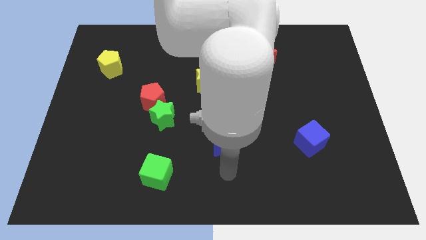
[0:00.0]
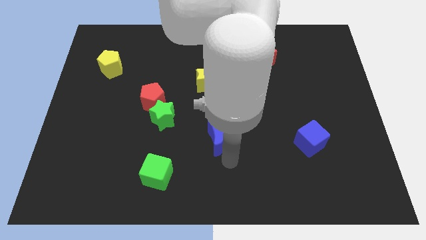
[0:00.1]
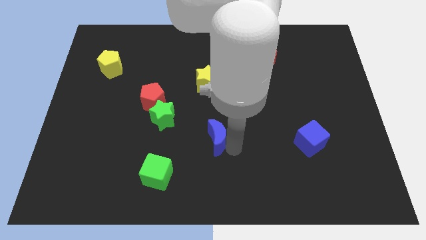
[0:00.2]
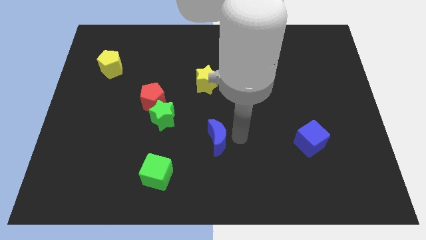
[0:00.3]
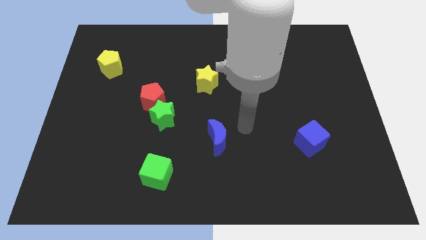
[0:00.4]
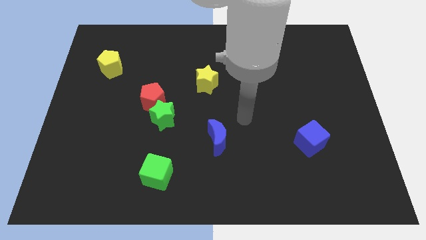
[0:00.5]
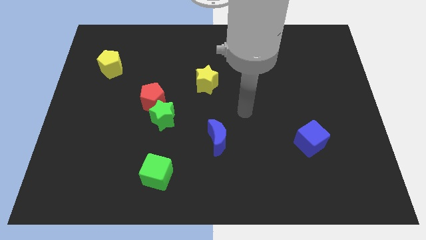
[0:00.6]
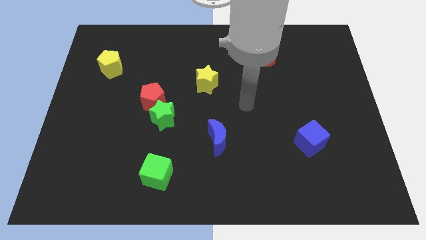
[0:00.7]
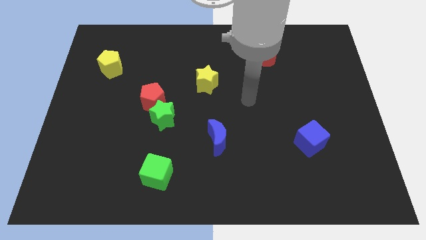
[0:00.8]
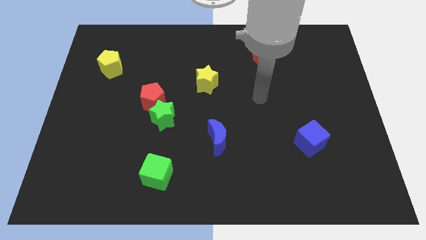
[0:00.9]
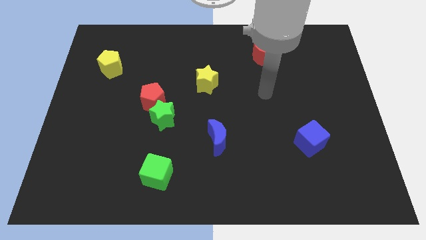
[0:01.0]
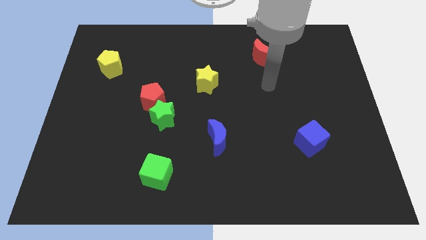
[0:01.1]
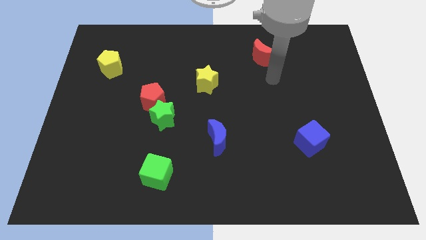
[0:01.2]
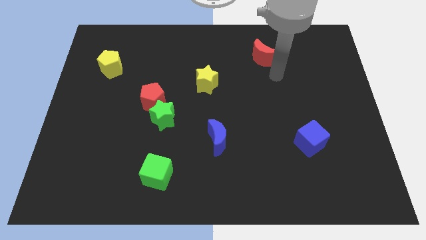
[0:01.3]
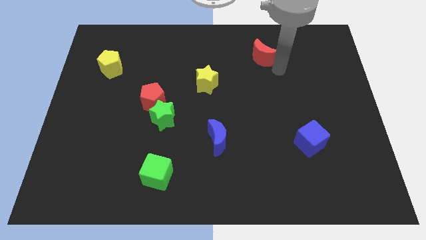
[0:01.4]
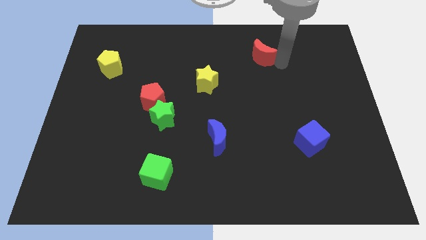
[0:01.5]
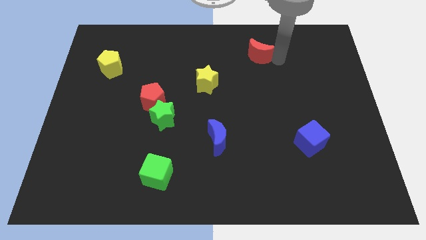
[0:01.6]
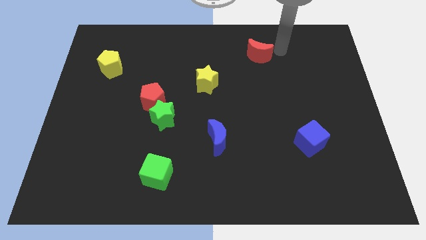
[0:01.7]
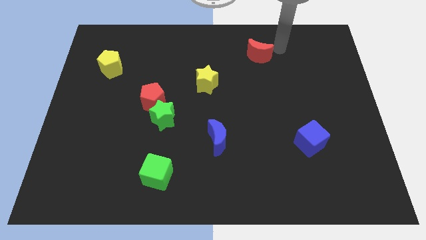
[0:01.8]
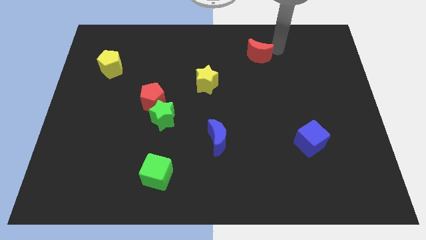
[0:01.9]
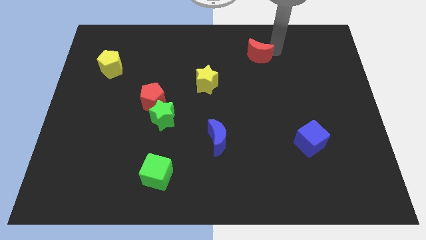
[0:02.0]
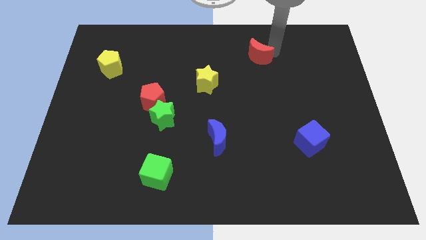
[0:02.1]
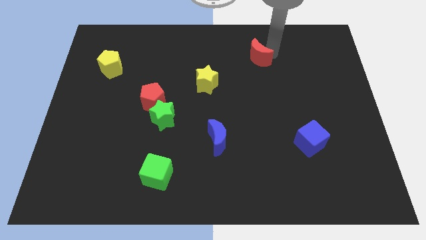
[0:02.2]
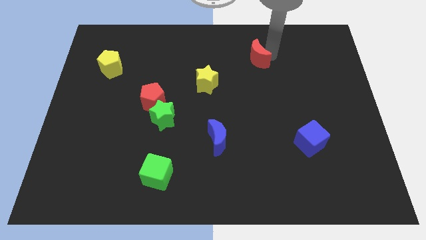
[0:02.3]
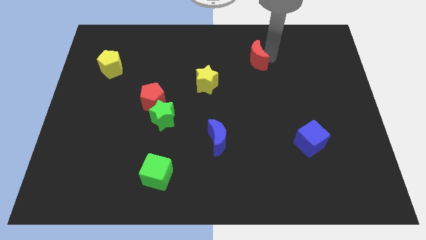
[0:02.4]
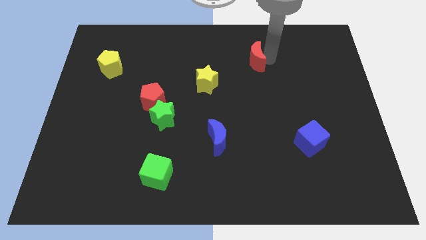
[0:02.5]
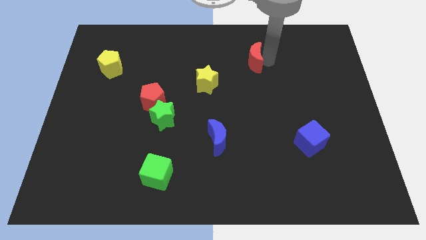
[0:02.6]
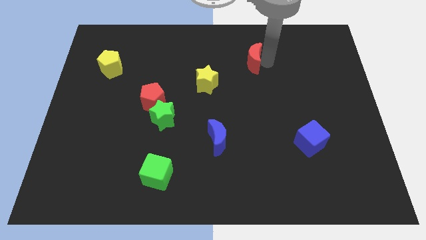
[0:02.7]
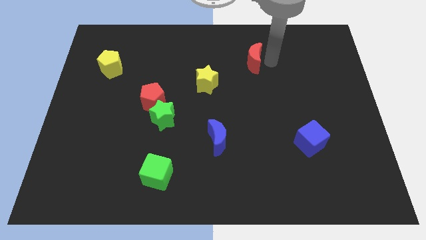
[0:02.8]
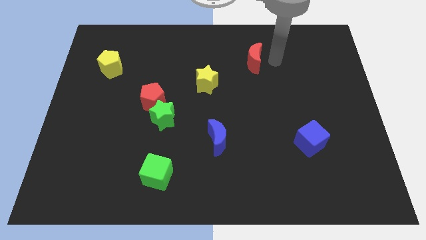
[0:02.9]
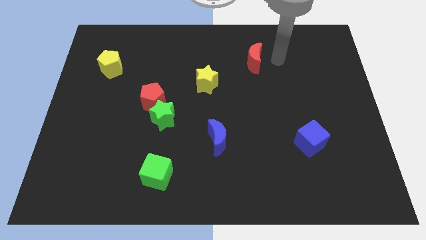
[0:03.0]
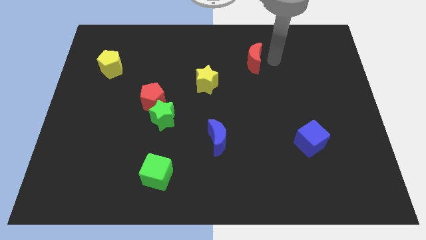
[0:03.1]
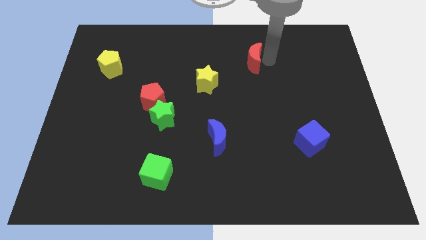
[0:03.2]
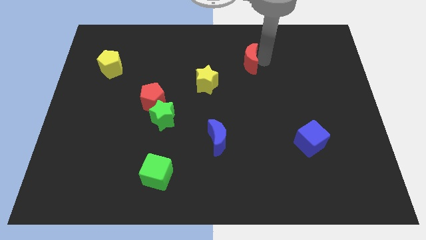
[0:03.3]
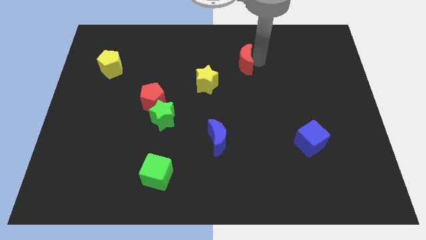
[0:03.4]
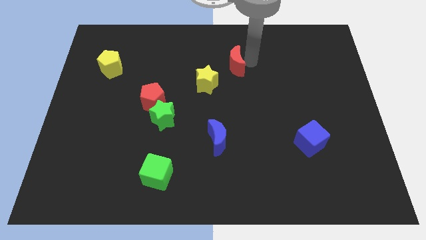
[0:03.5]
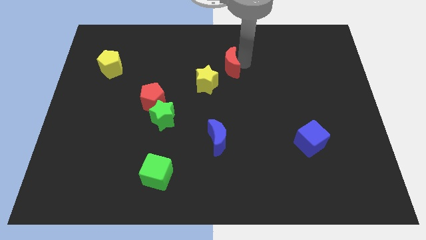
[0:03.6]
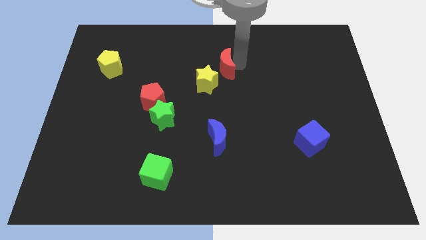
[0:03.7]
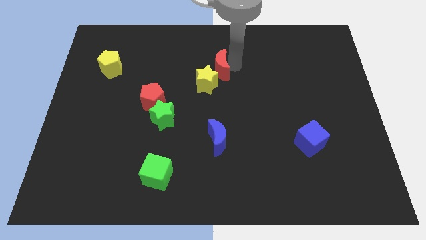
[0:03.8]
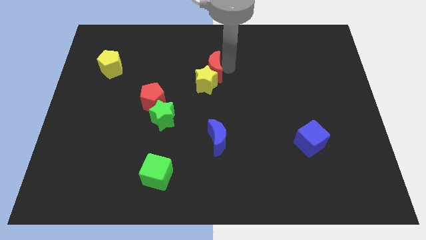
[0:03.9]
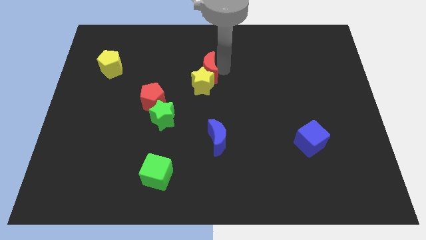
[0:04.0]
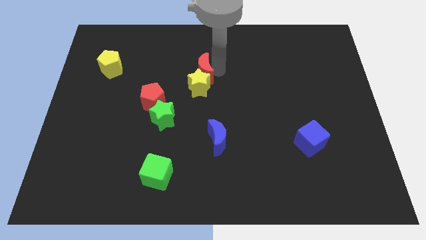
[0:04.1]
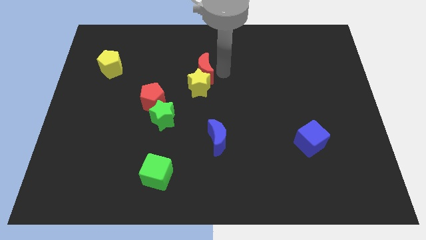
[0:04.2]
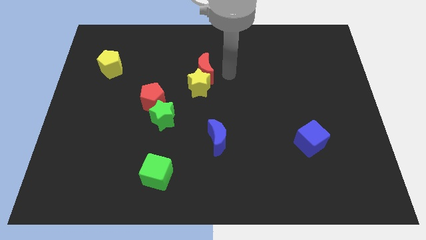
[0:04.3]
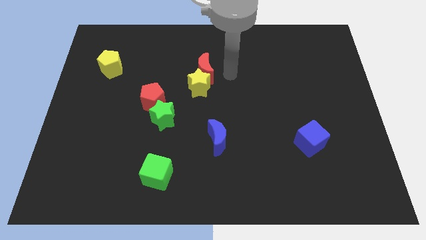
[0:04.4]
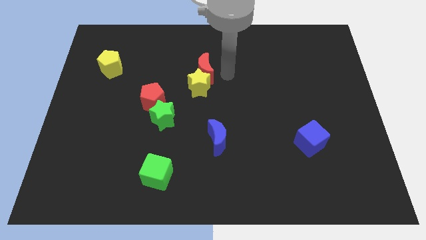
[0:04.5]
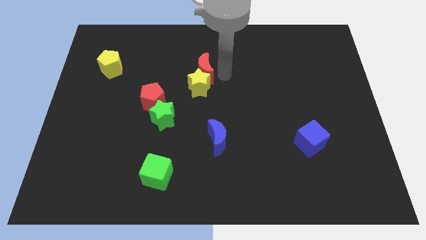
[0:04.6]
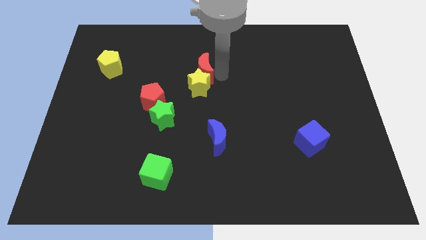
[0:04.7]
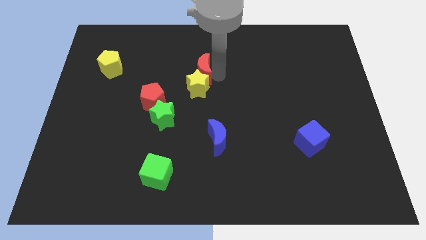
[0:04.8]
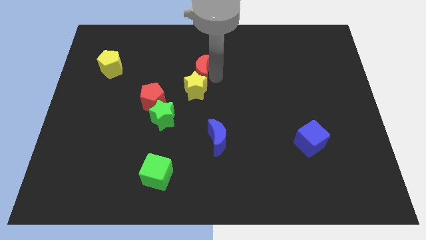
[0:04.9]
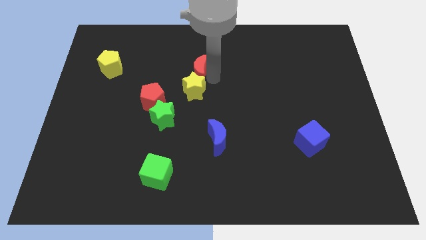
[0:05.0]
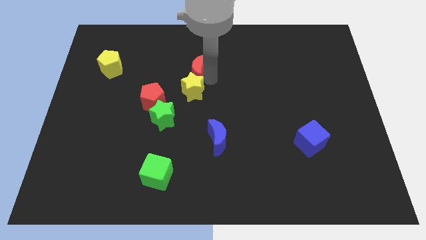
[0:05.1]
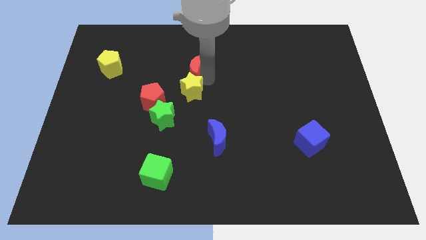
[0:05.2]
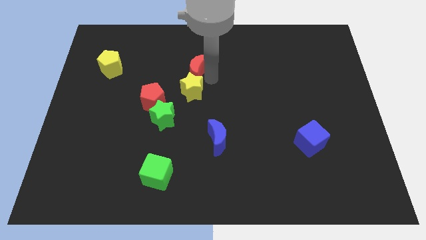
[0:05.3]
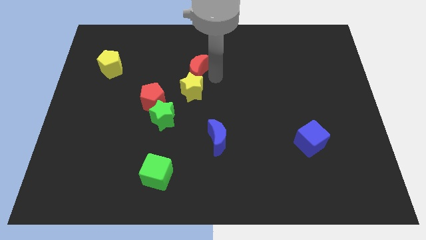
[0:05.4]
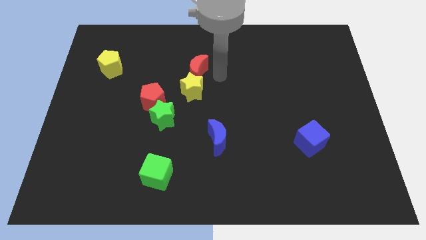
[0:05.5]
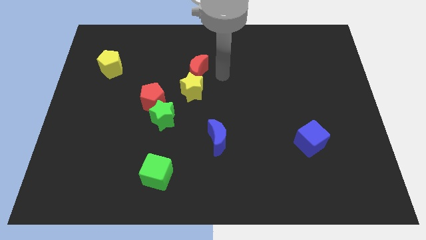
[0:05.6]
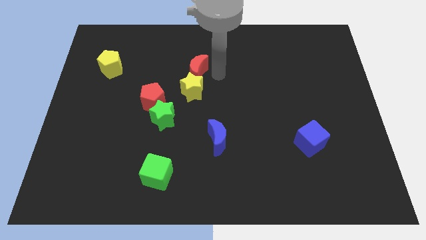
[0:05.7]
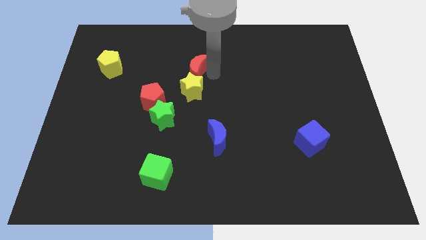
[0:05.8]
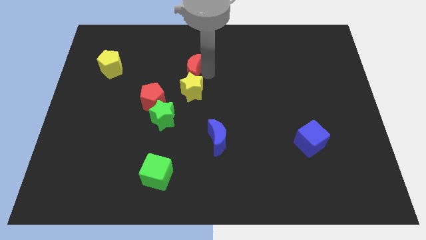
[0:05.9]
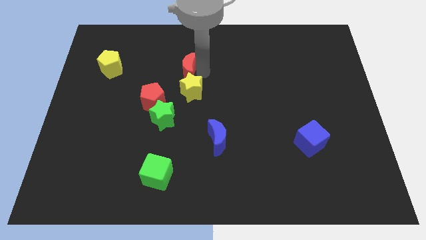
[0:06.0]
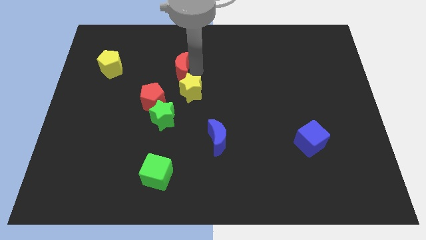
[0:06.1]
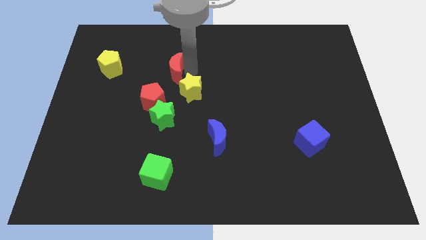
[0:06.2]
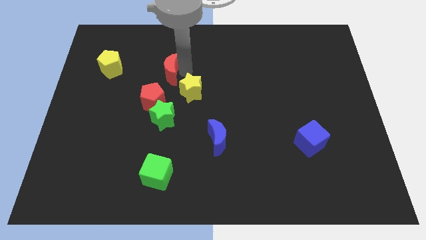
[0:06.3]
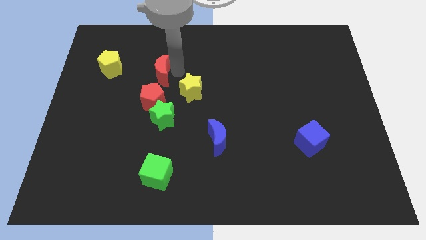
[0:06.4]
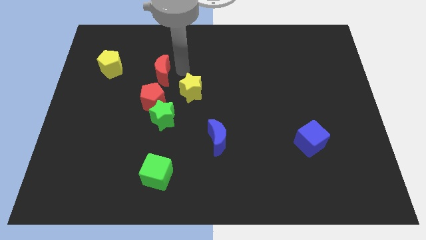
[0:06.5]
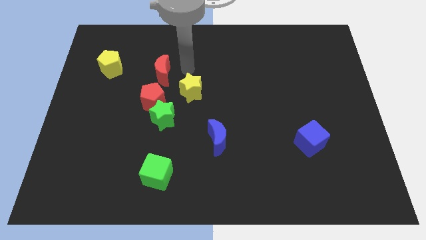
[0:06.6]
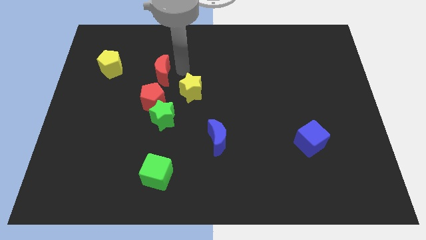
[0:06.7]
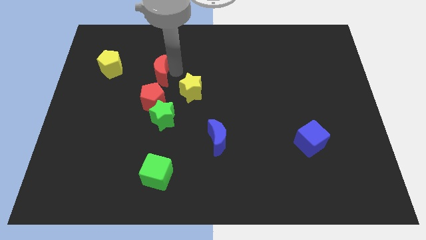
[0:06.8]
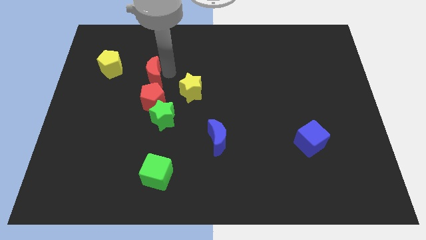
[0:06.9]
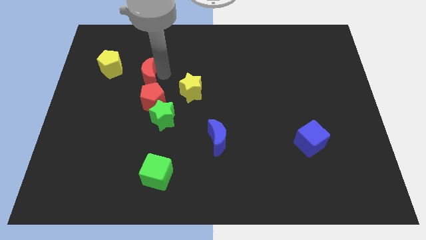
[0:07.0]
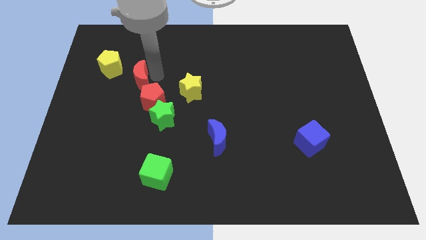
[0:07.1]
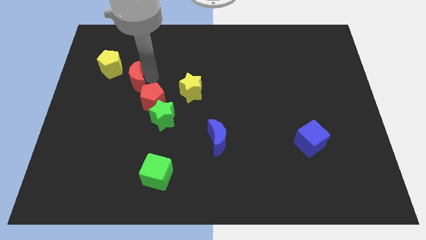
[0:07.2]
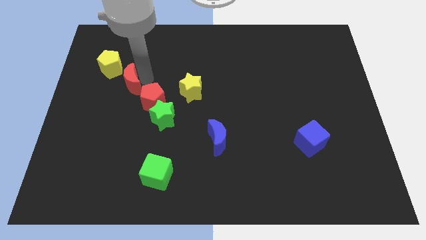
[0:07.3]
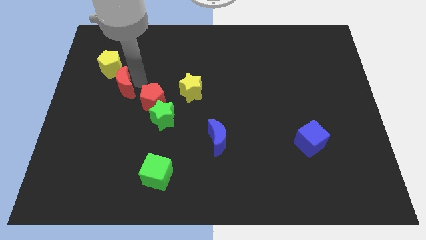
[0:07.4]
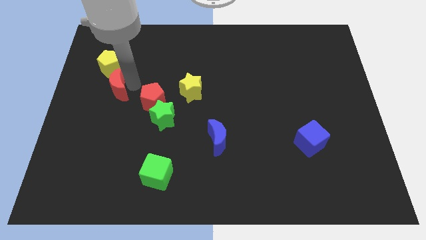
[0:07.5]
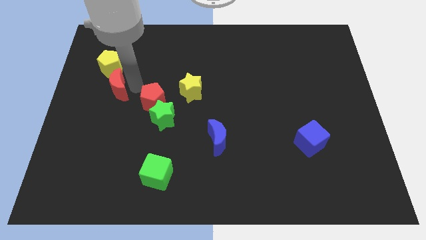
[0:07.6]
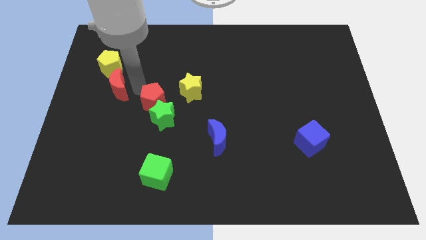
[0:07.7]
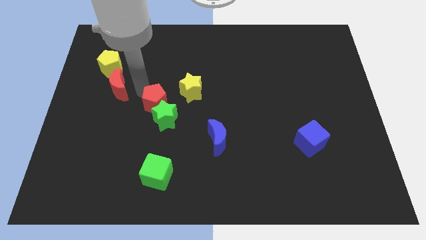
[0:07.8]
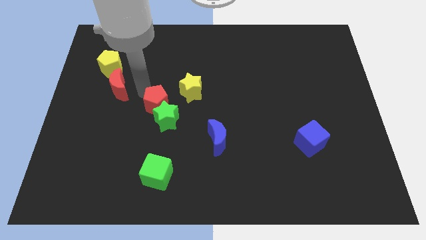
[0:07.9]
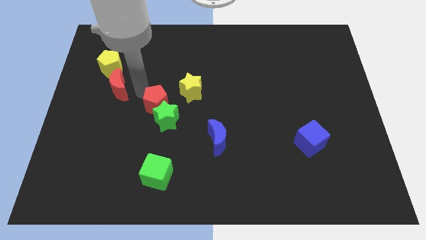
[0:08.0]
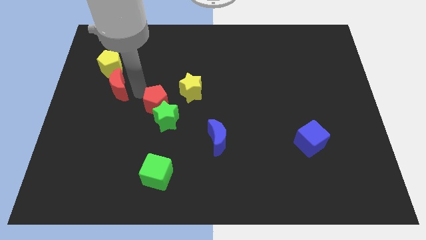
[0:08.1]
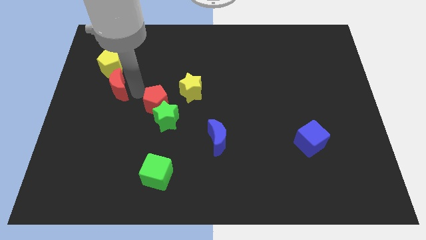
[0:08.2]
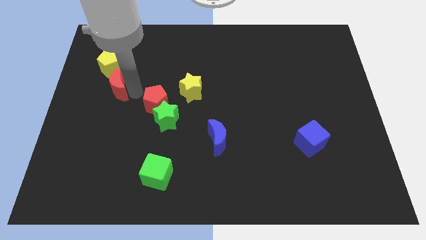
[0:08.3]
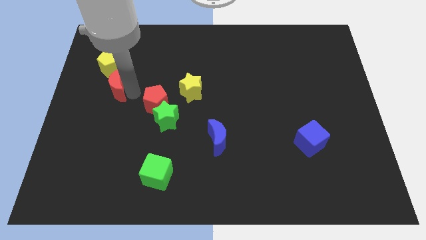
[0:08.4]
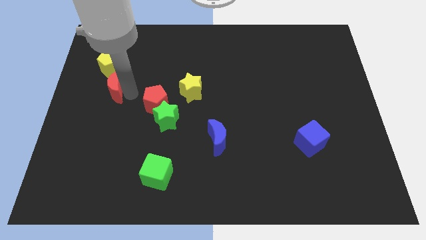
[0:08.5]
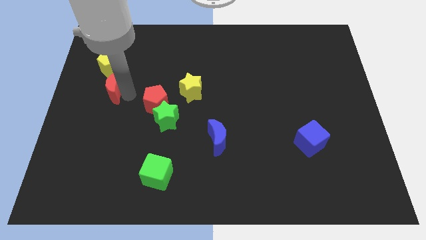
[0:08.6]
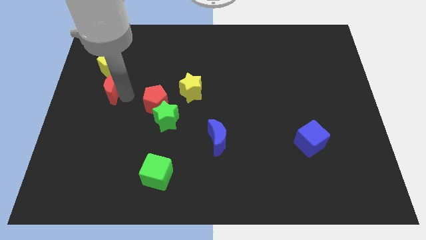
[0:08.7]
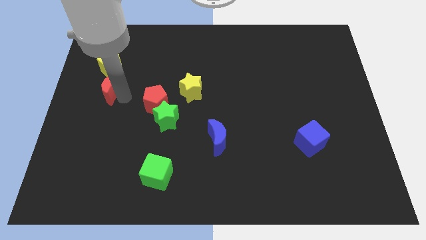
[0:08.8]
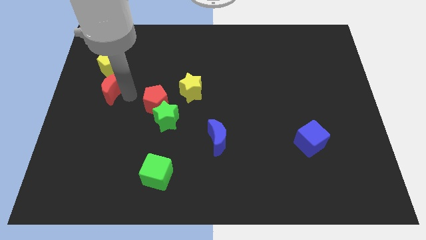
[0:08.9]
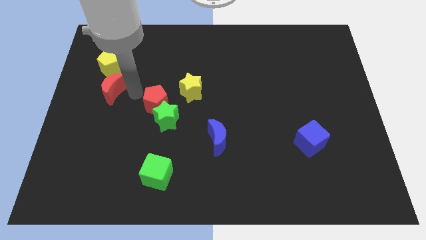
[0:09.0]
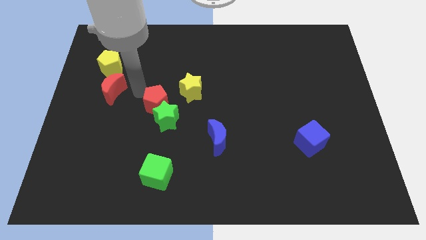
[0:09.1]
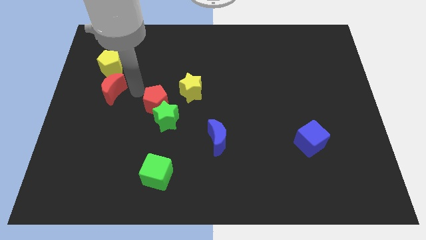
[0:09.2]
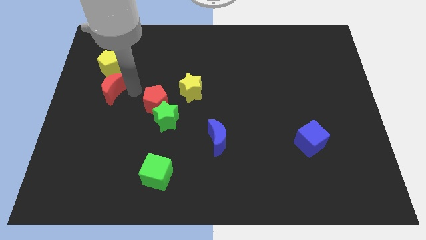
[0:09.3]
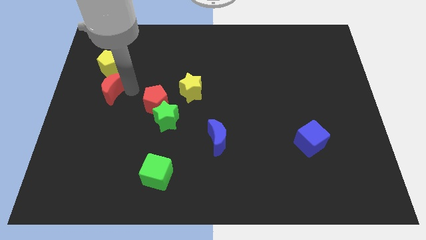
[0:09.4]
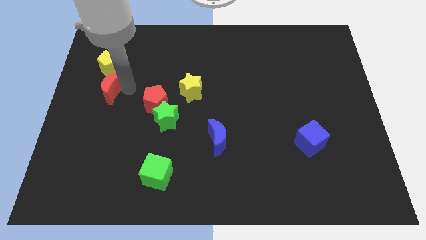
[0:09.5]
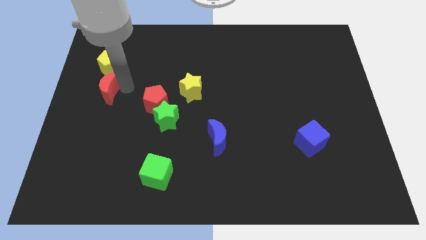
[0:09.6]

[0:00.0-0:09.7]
move the red moon to the center left
